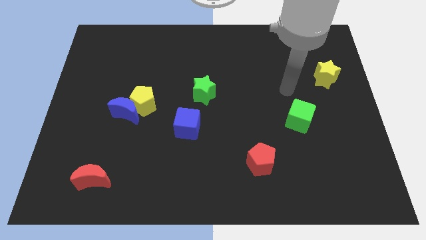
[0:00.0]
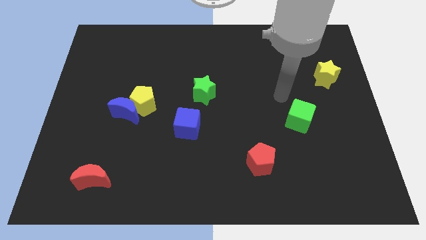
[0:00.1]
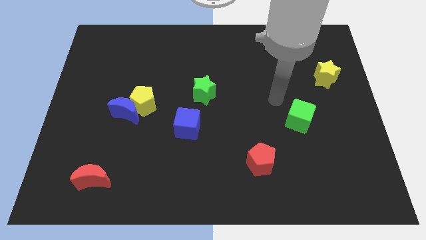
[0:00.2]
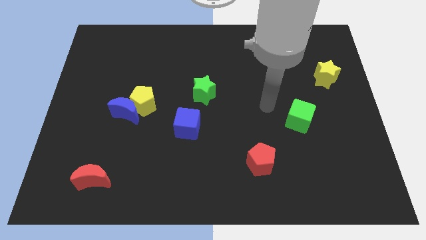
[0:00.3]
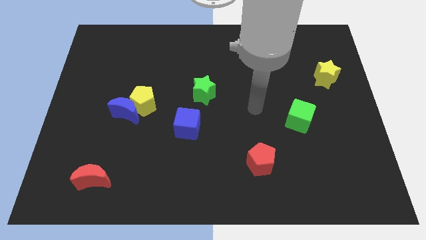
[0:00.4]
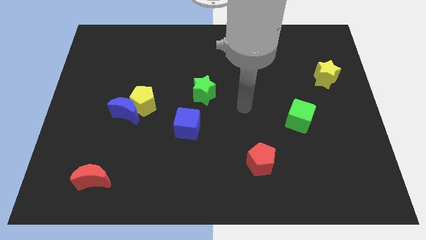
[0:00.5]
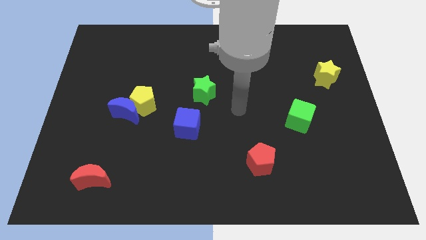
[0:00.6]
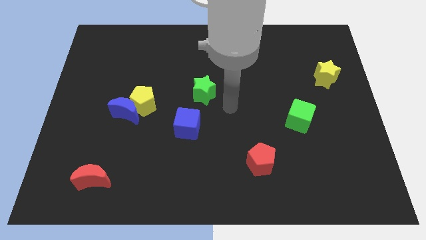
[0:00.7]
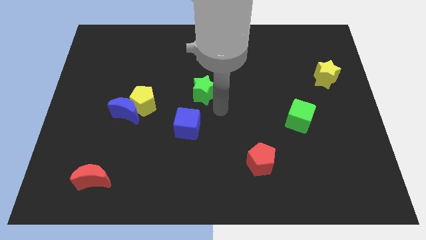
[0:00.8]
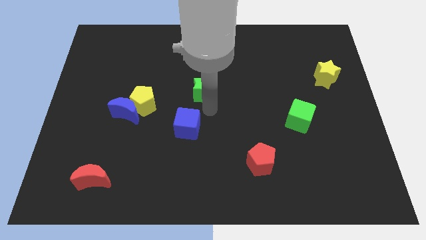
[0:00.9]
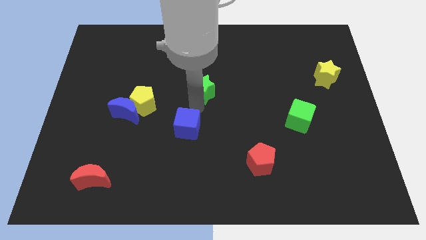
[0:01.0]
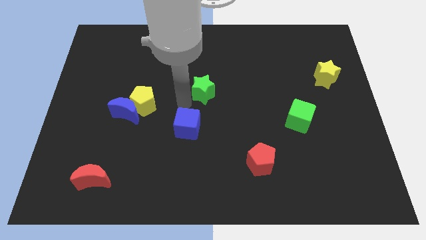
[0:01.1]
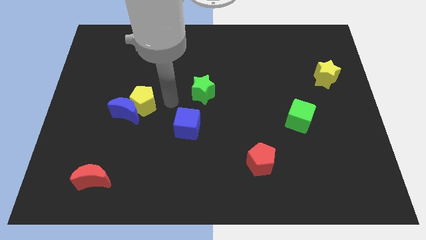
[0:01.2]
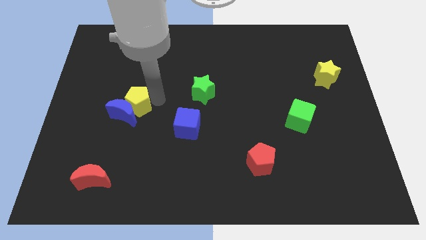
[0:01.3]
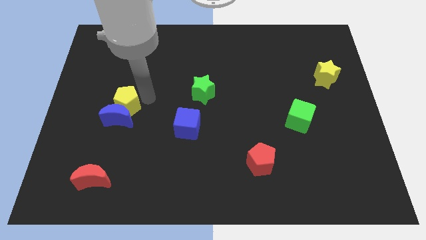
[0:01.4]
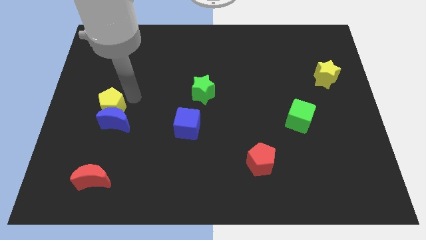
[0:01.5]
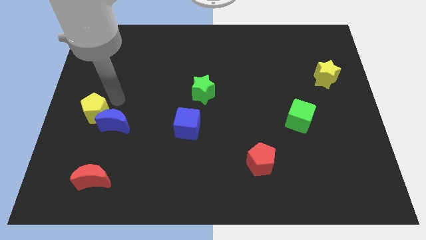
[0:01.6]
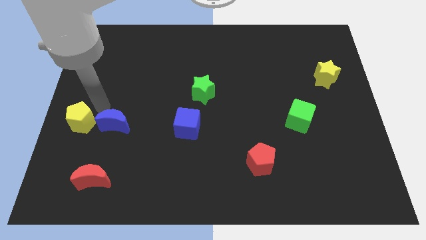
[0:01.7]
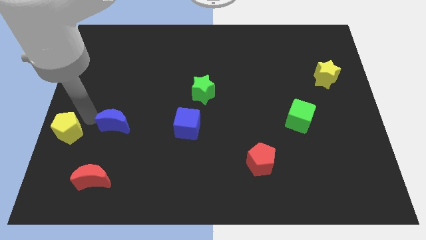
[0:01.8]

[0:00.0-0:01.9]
pull the blue moon apart from the yellow pentagon

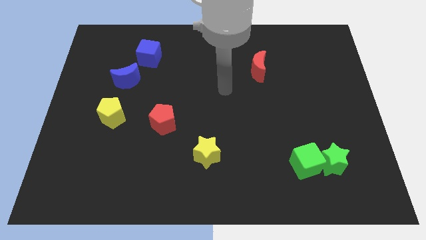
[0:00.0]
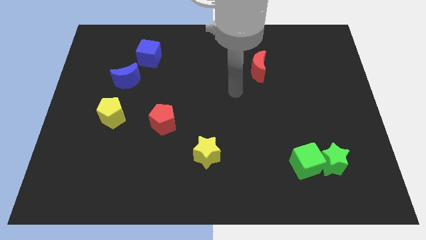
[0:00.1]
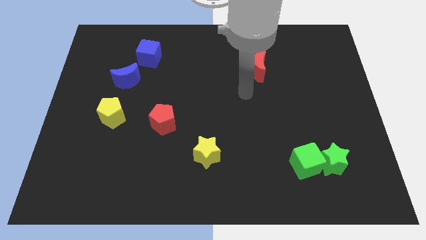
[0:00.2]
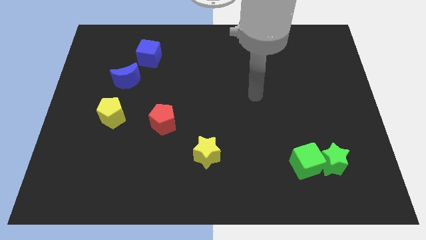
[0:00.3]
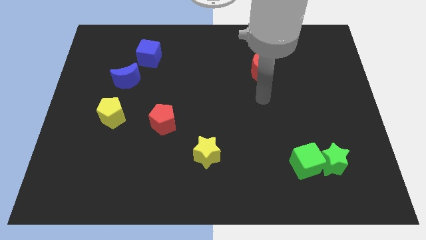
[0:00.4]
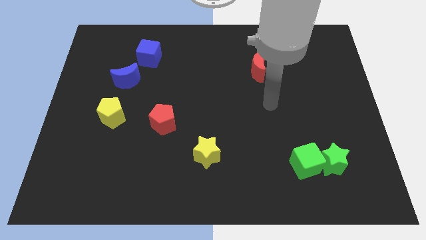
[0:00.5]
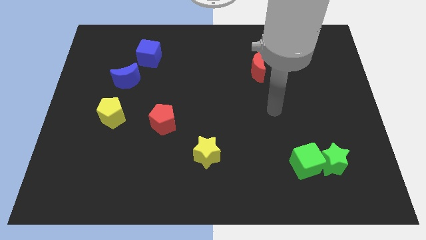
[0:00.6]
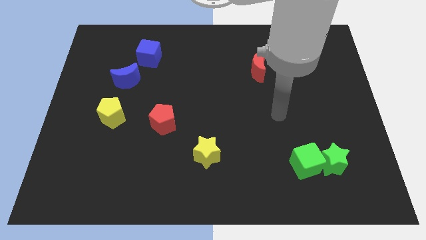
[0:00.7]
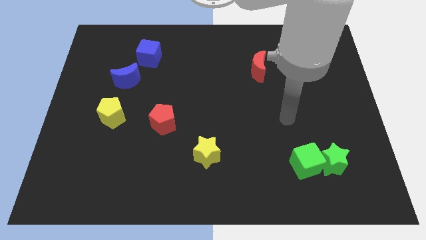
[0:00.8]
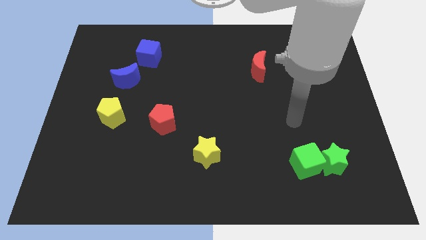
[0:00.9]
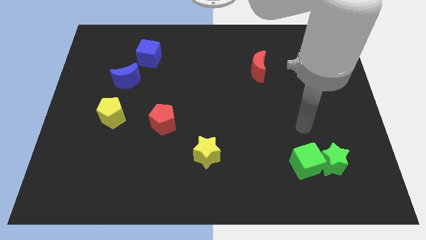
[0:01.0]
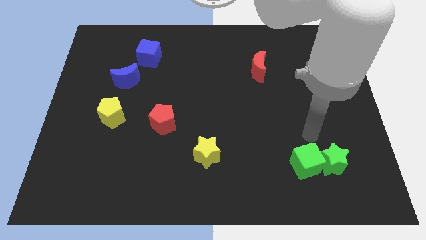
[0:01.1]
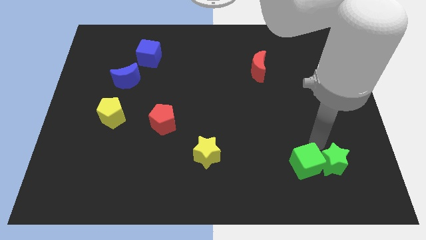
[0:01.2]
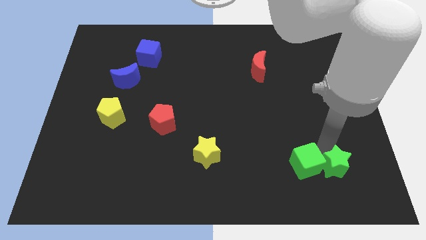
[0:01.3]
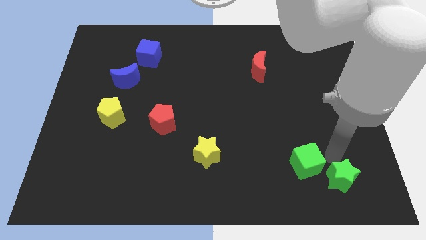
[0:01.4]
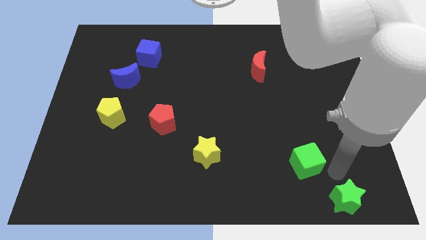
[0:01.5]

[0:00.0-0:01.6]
separate the green cube from the green star

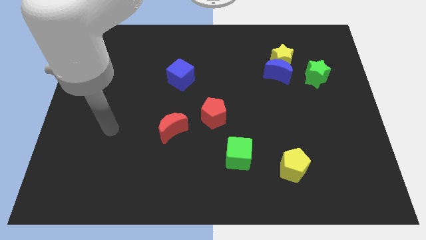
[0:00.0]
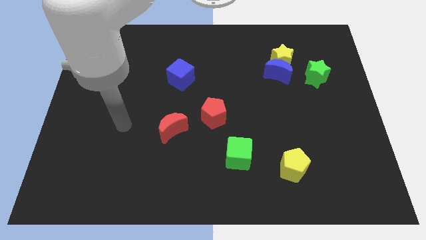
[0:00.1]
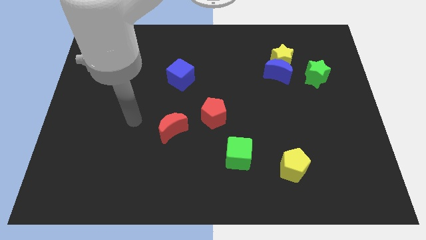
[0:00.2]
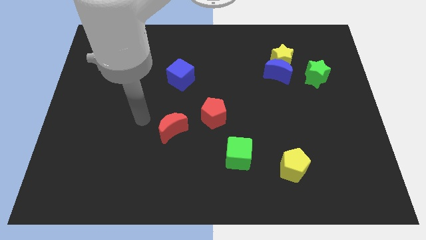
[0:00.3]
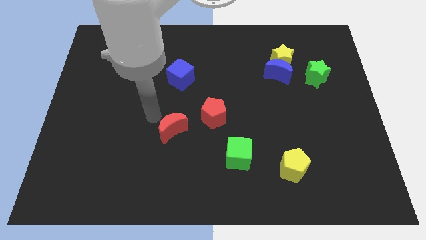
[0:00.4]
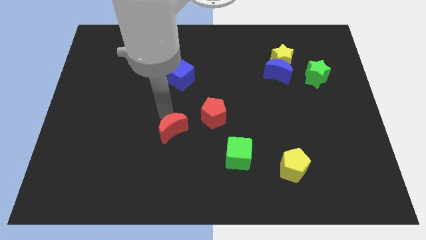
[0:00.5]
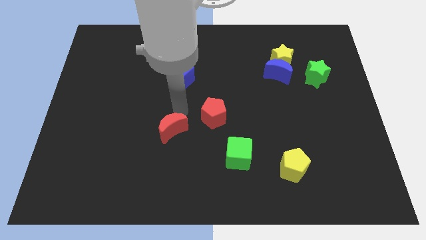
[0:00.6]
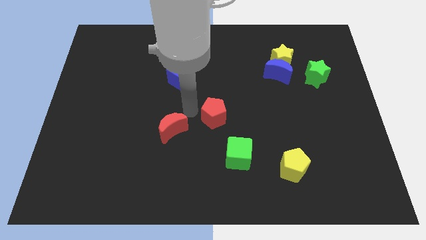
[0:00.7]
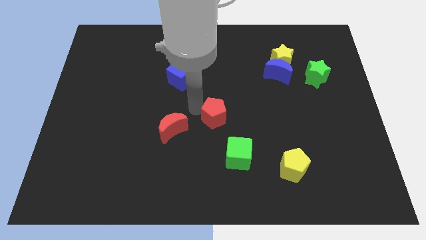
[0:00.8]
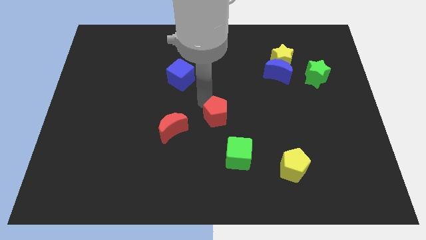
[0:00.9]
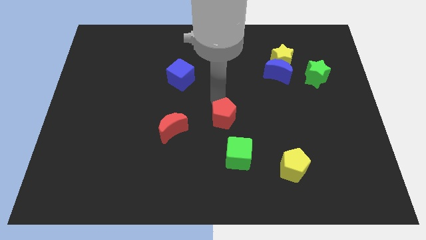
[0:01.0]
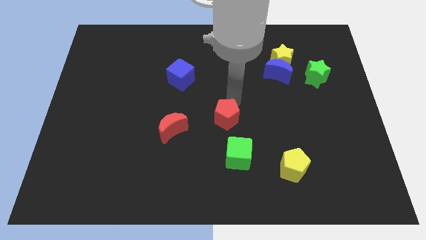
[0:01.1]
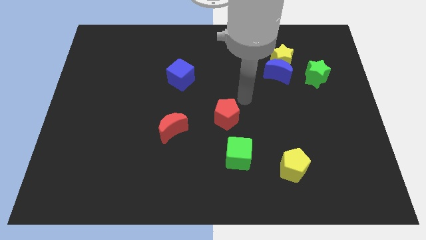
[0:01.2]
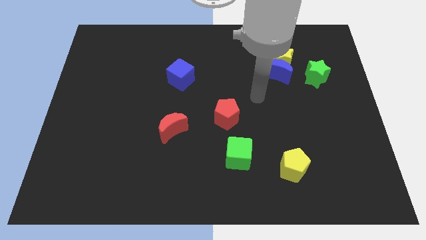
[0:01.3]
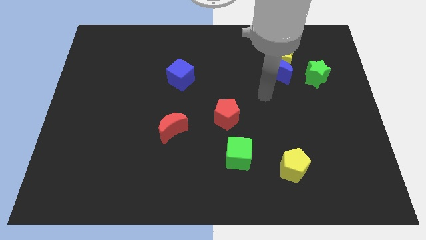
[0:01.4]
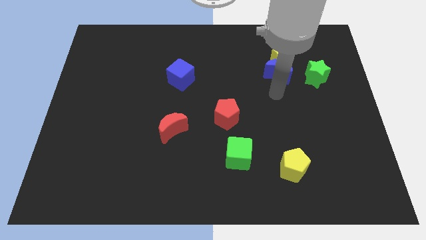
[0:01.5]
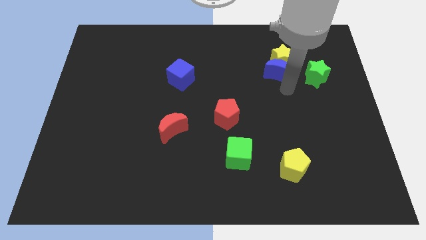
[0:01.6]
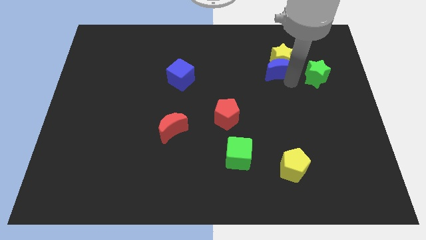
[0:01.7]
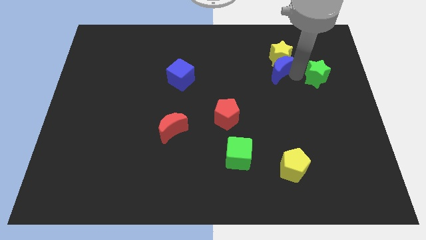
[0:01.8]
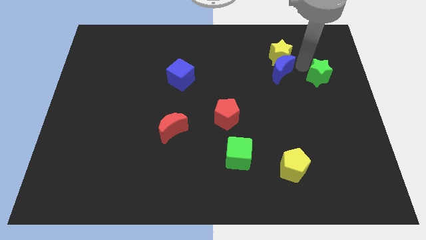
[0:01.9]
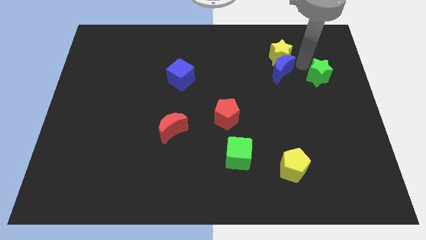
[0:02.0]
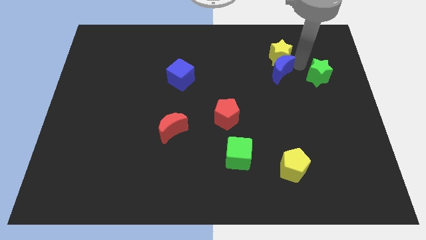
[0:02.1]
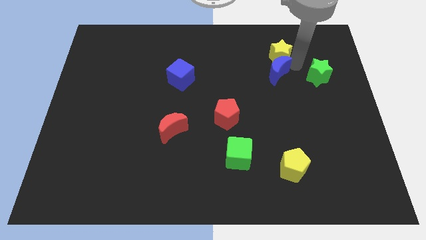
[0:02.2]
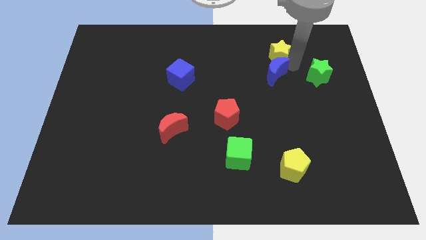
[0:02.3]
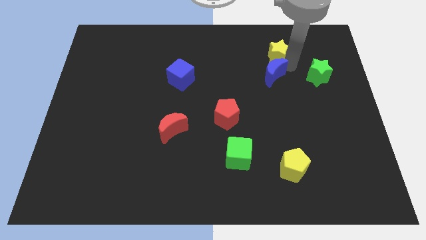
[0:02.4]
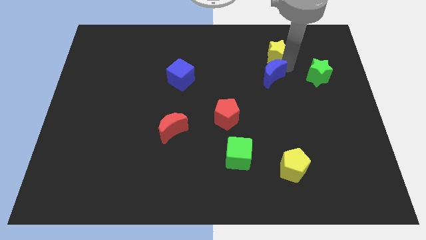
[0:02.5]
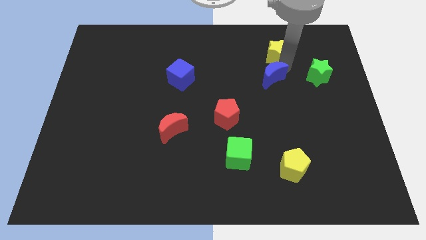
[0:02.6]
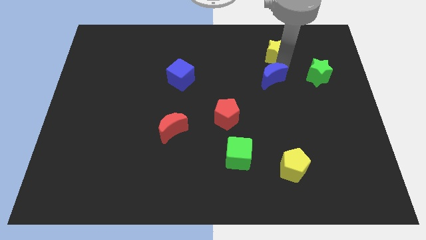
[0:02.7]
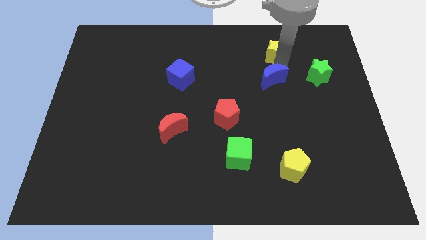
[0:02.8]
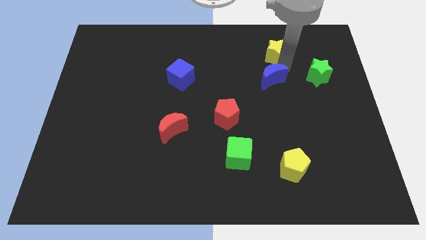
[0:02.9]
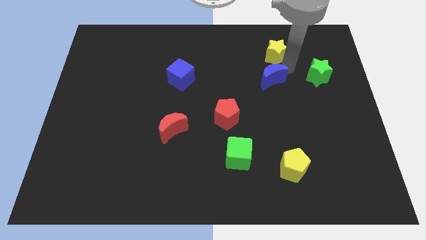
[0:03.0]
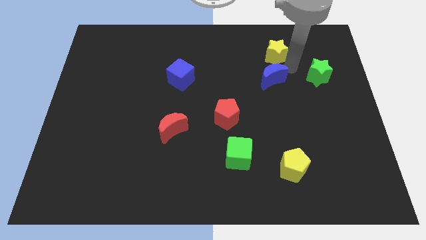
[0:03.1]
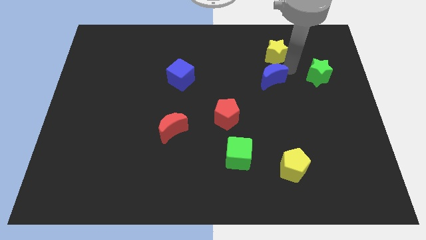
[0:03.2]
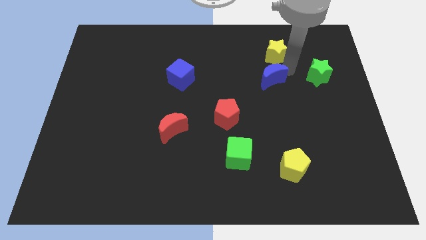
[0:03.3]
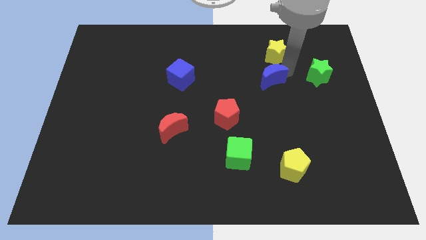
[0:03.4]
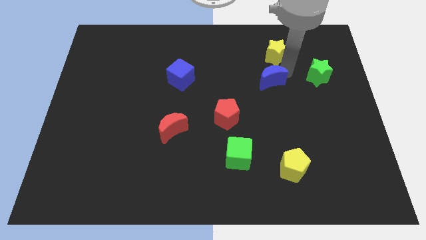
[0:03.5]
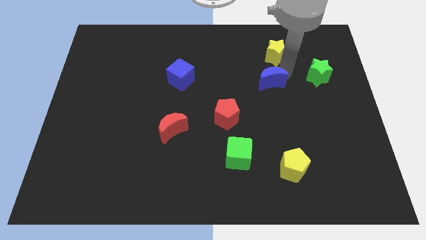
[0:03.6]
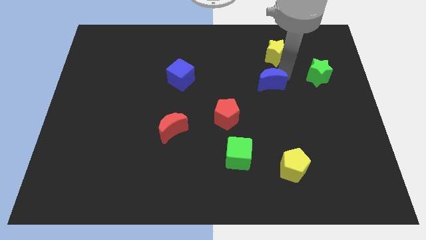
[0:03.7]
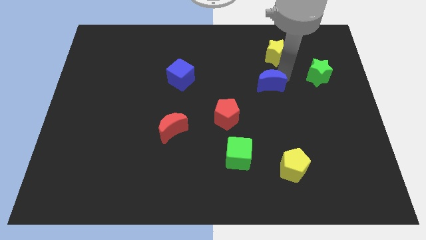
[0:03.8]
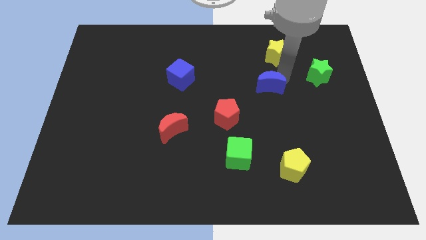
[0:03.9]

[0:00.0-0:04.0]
separate the blue moon from the yellow star and green star

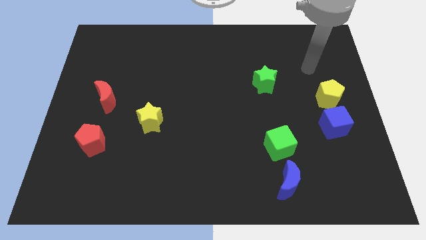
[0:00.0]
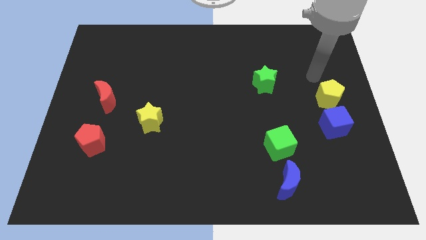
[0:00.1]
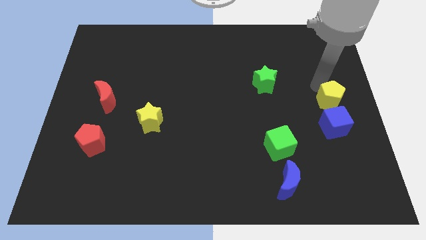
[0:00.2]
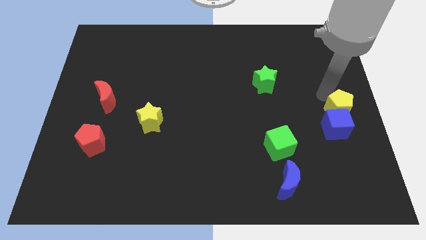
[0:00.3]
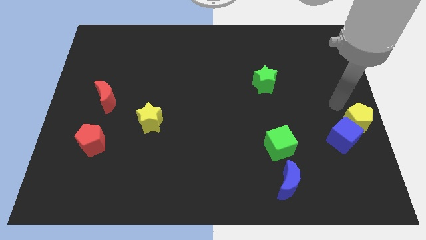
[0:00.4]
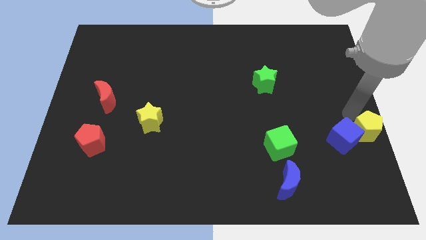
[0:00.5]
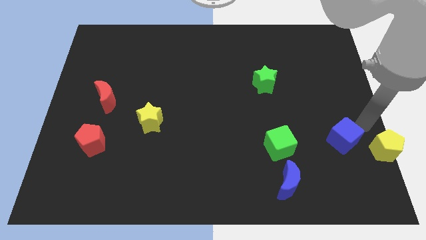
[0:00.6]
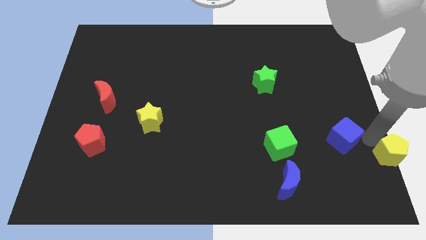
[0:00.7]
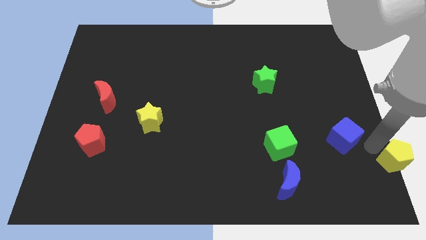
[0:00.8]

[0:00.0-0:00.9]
move the blue cube away from the yellow pentagon

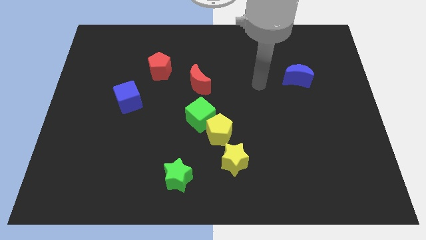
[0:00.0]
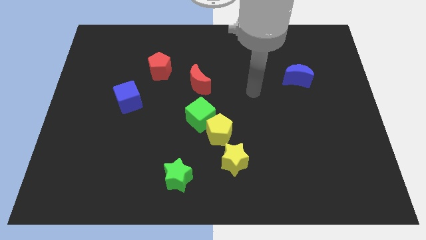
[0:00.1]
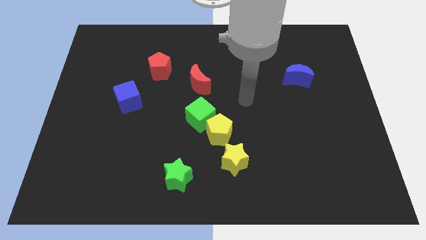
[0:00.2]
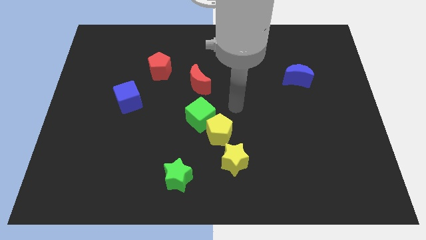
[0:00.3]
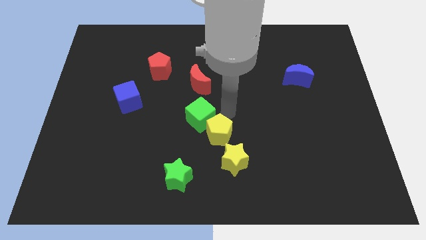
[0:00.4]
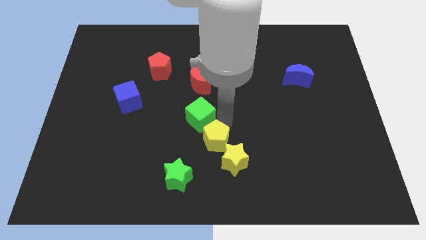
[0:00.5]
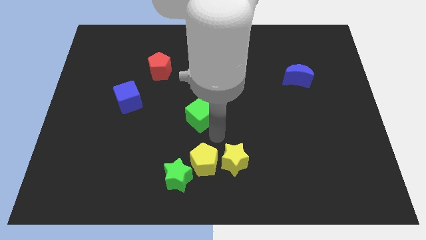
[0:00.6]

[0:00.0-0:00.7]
move the green cube away from the yellow pentagon
